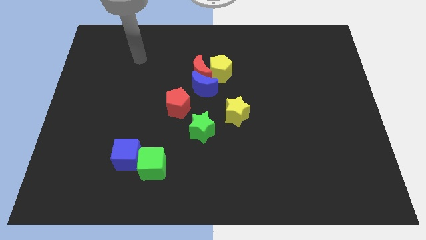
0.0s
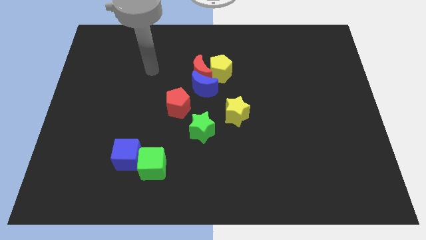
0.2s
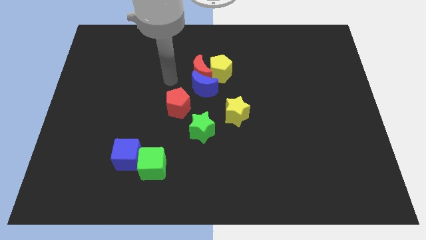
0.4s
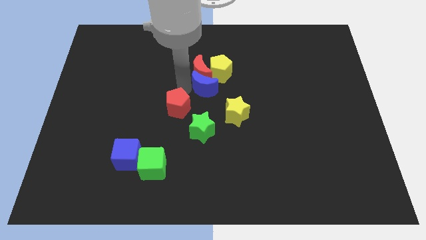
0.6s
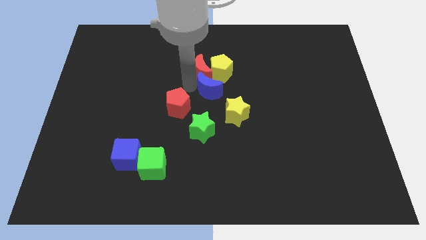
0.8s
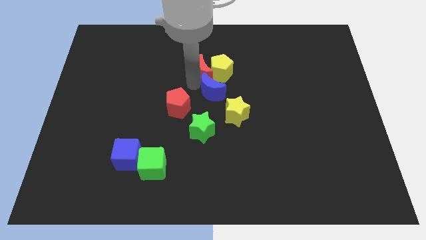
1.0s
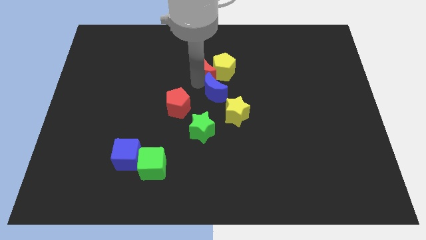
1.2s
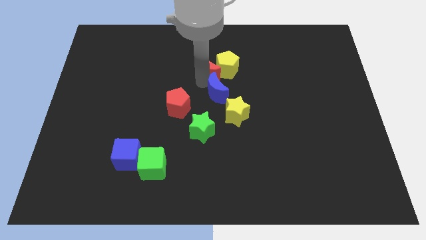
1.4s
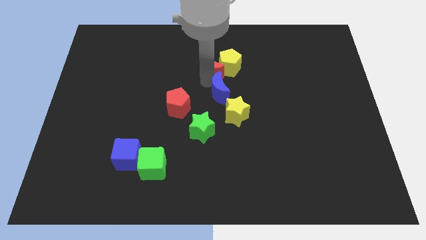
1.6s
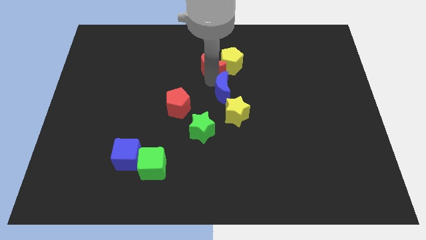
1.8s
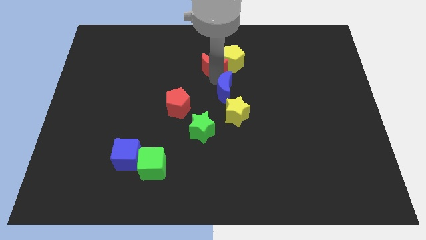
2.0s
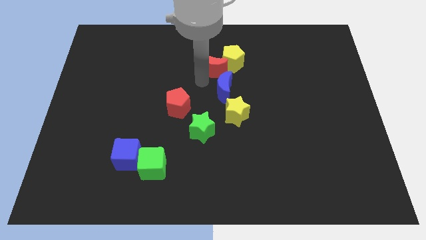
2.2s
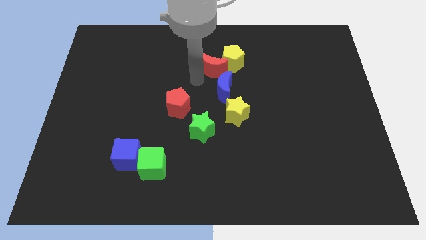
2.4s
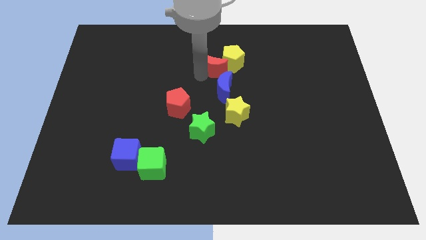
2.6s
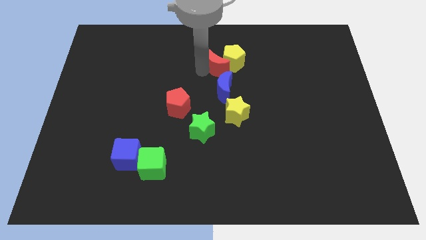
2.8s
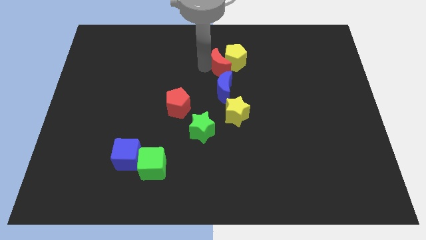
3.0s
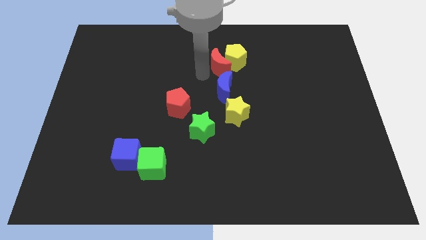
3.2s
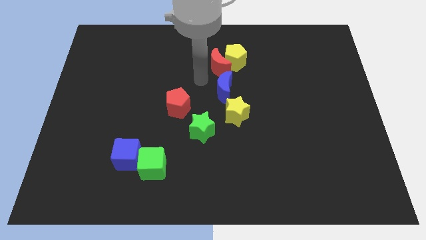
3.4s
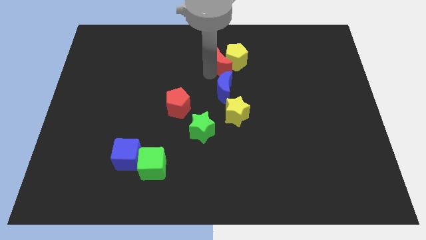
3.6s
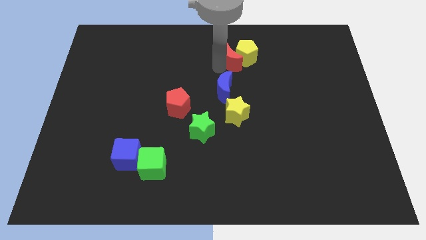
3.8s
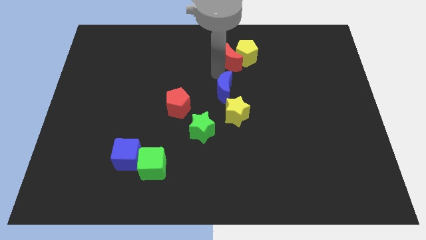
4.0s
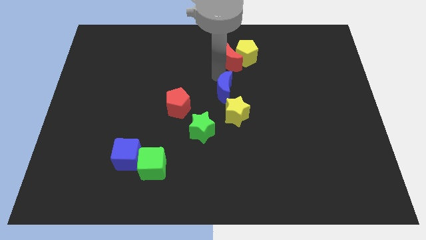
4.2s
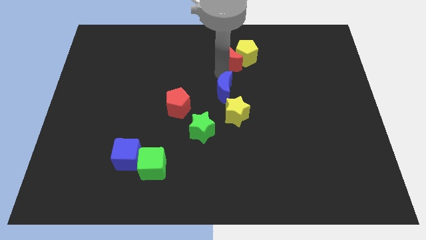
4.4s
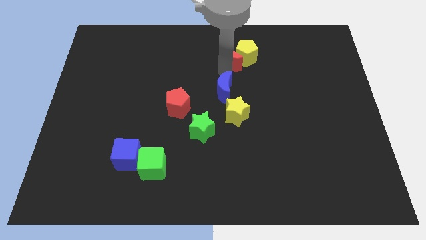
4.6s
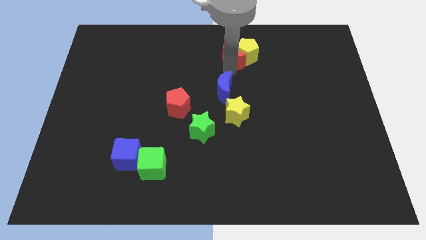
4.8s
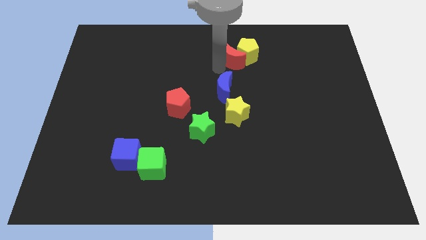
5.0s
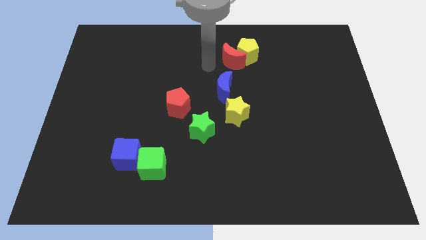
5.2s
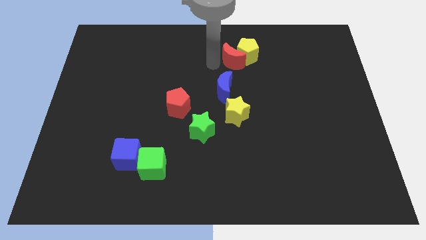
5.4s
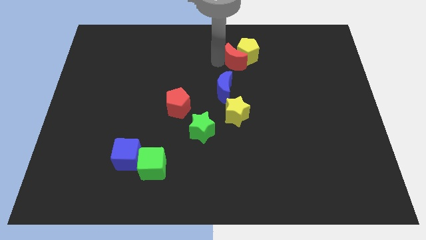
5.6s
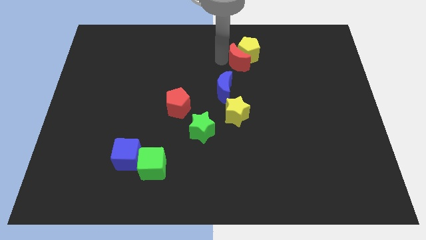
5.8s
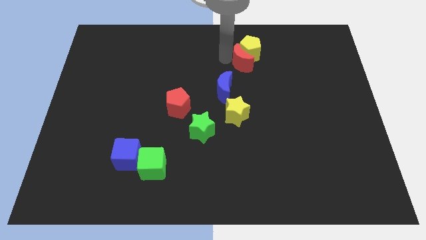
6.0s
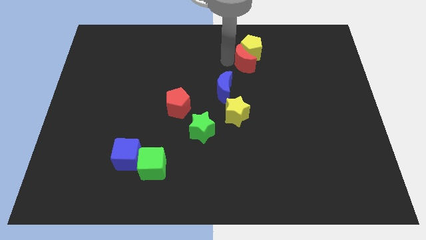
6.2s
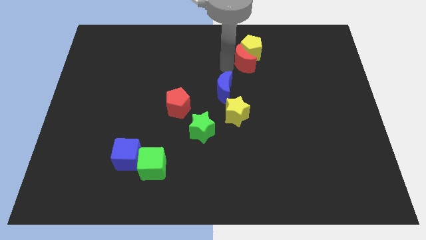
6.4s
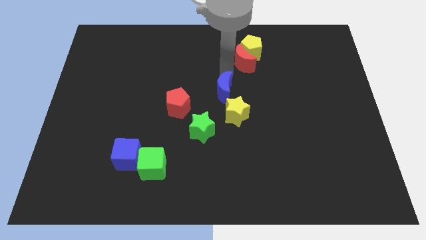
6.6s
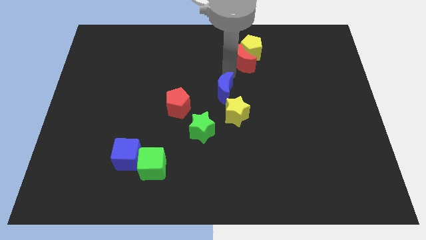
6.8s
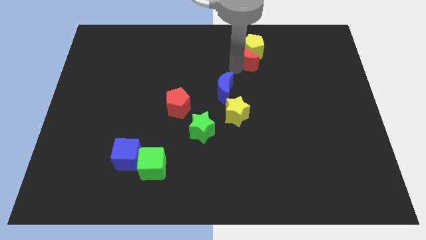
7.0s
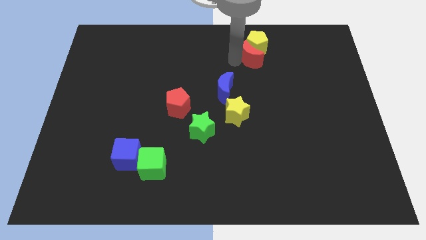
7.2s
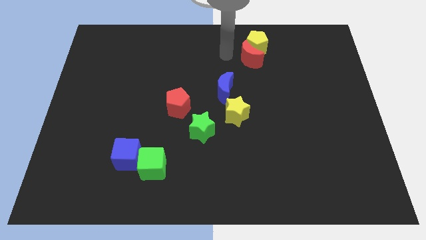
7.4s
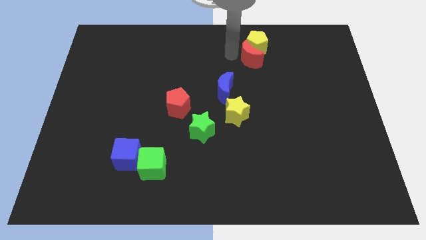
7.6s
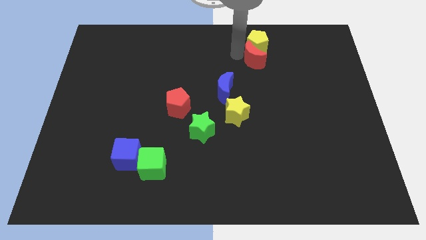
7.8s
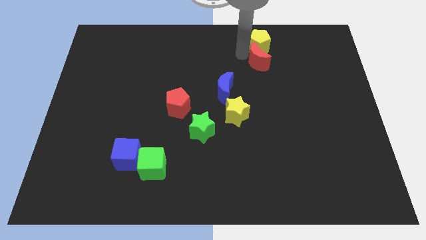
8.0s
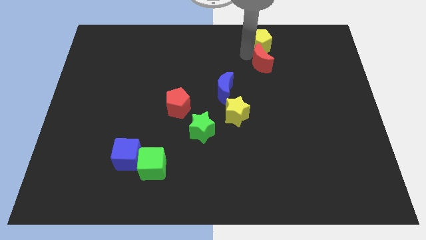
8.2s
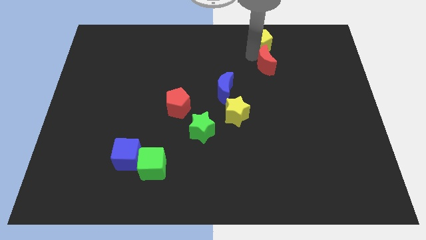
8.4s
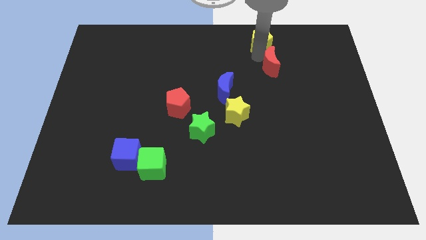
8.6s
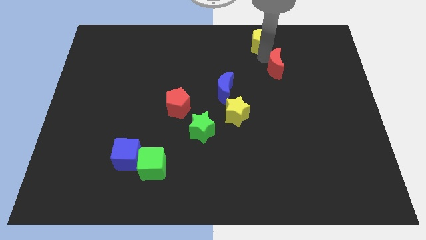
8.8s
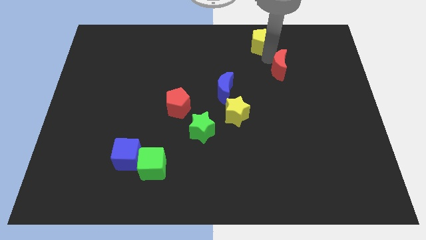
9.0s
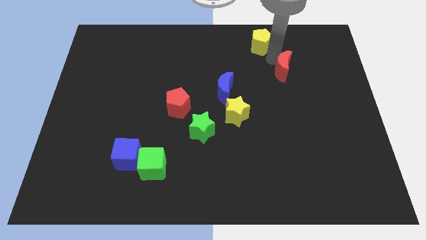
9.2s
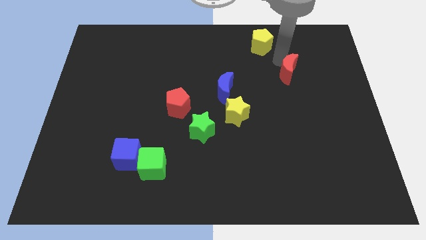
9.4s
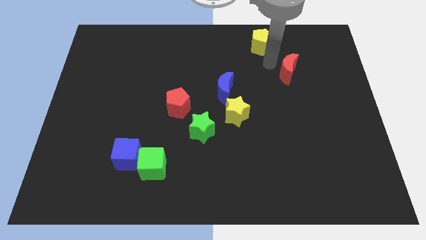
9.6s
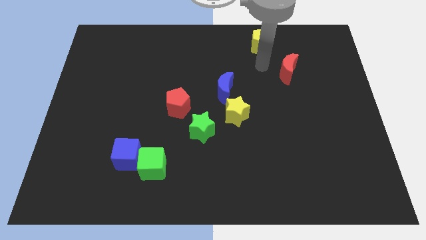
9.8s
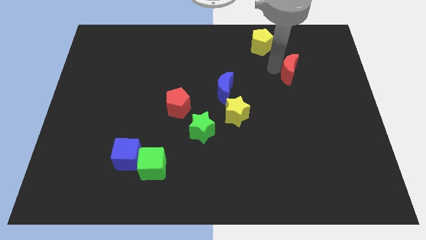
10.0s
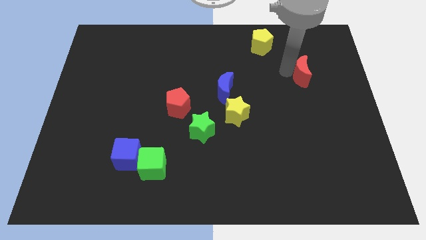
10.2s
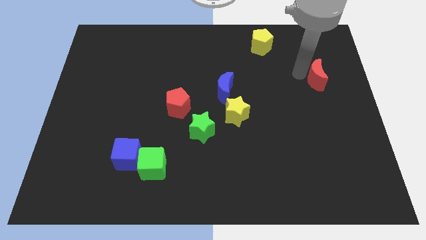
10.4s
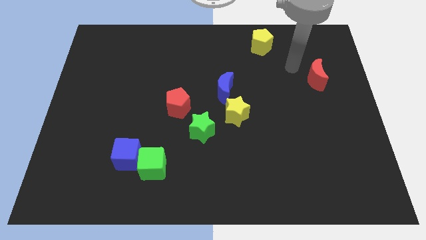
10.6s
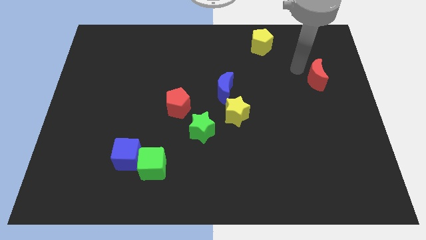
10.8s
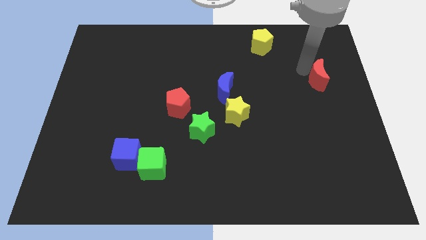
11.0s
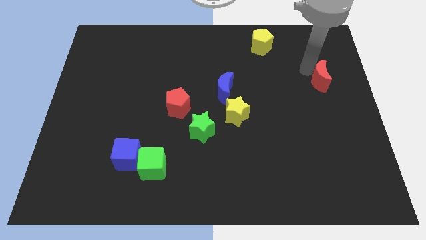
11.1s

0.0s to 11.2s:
push the red moon to the right side of the board

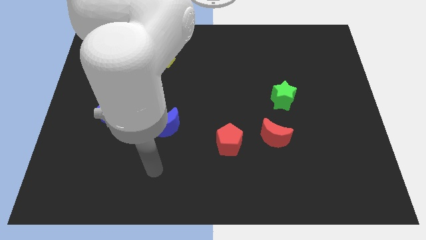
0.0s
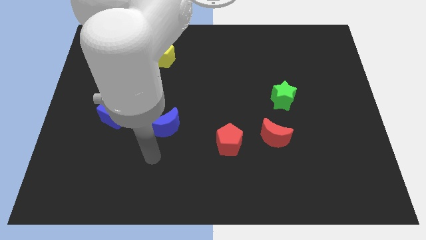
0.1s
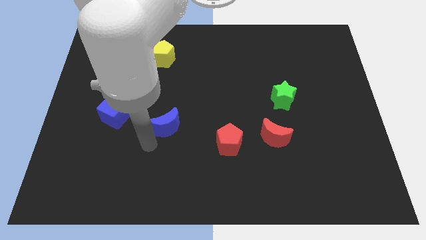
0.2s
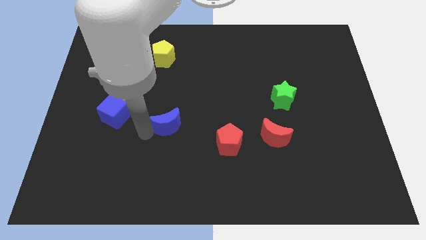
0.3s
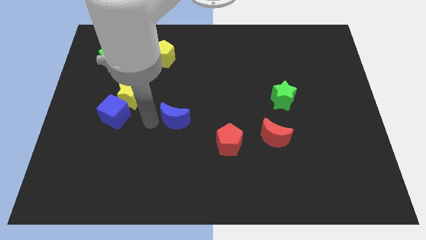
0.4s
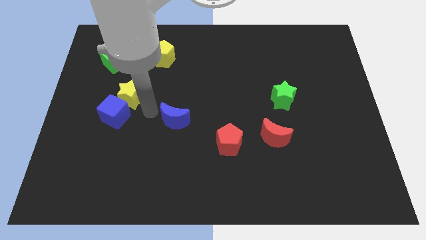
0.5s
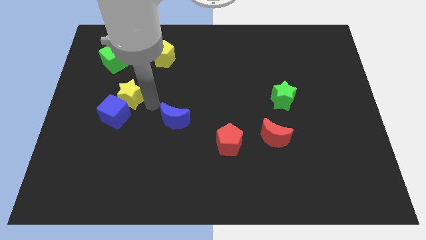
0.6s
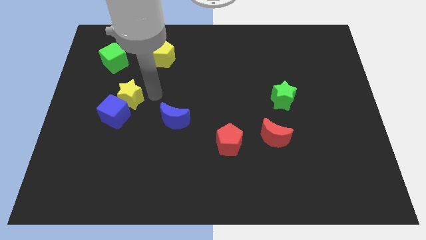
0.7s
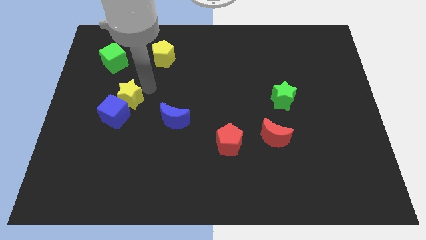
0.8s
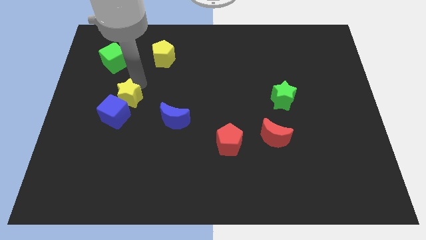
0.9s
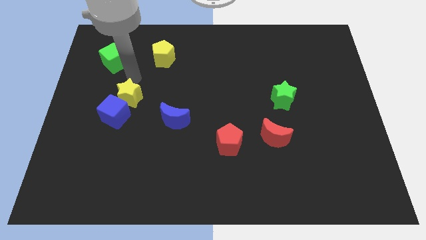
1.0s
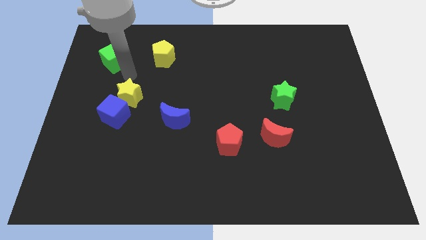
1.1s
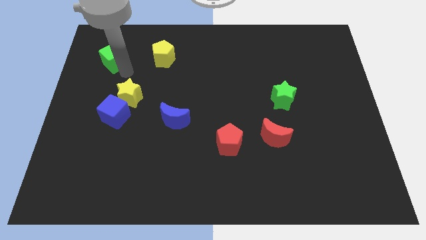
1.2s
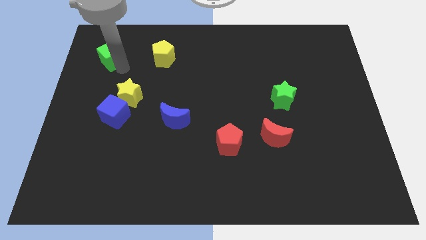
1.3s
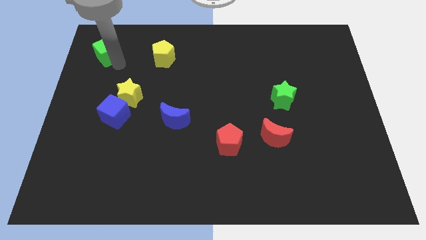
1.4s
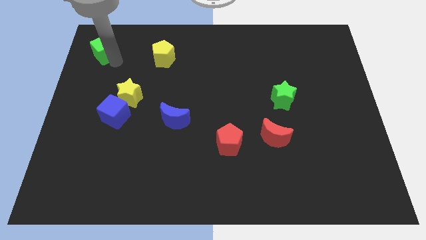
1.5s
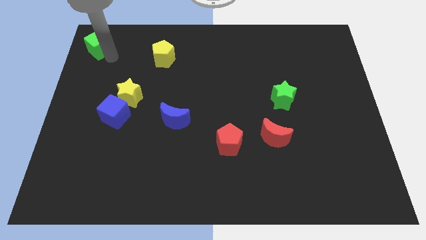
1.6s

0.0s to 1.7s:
slide the green cube to the top left corner
